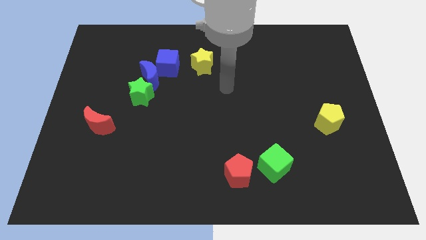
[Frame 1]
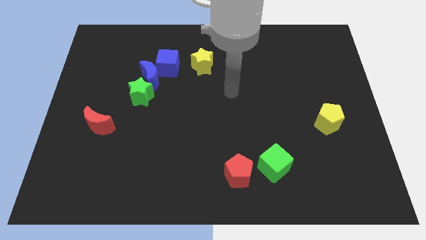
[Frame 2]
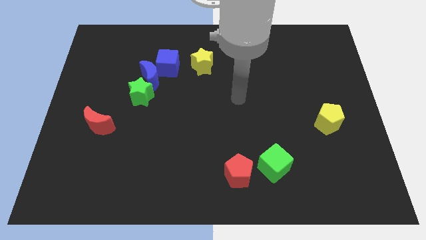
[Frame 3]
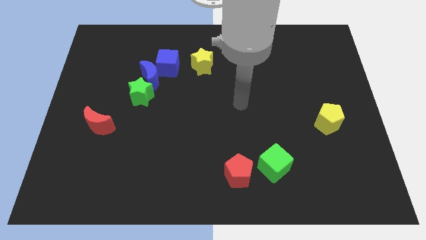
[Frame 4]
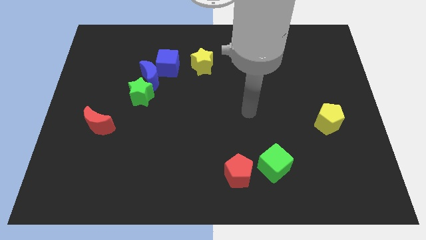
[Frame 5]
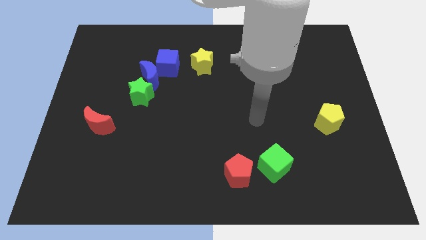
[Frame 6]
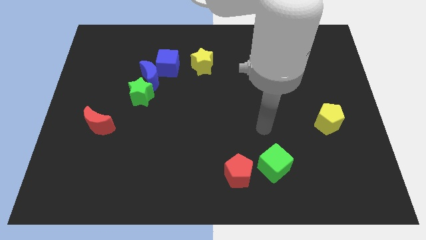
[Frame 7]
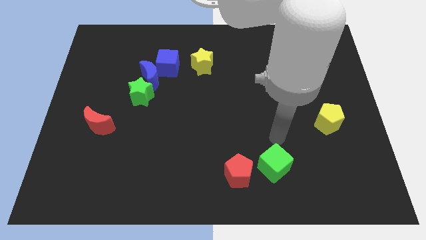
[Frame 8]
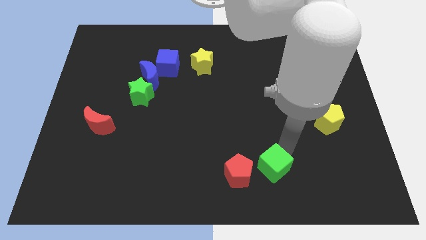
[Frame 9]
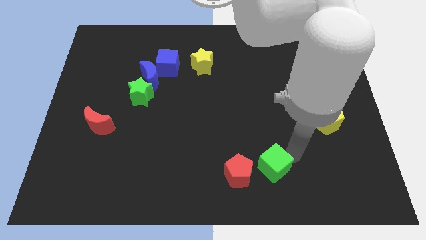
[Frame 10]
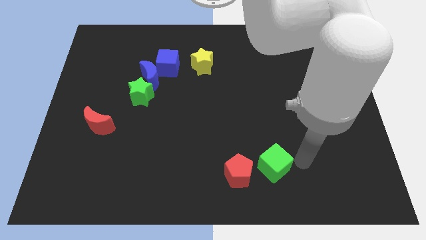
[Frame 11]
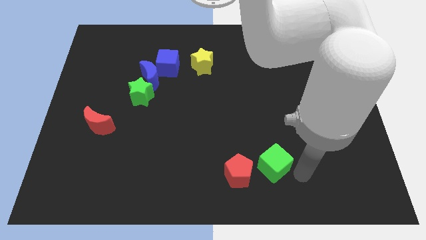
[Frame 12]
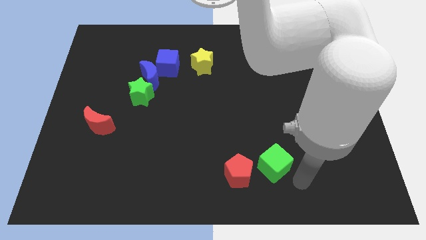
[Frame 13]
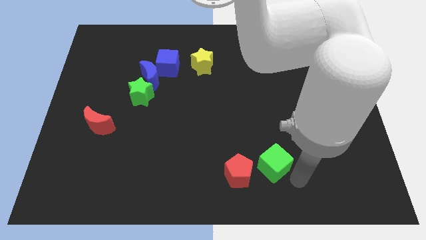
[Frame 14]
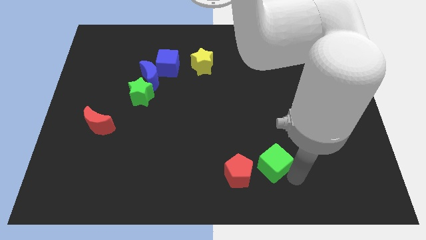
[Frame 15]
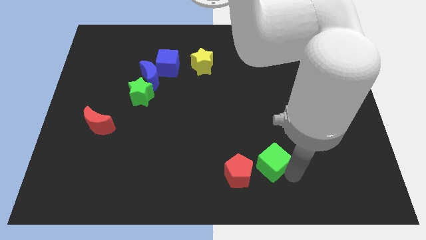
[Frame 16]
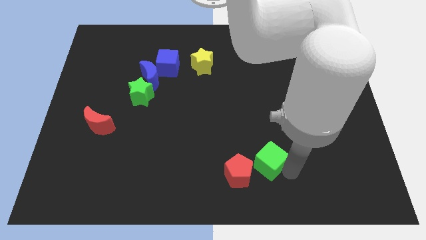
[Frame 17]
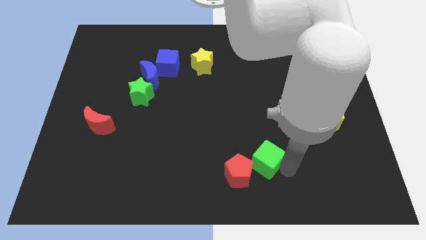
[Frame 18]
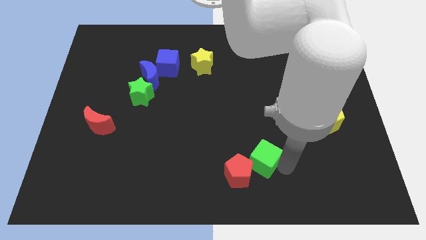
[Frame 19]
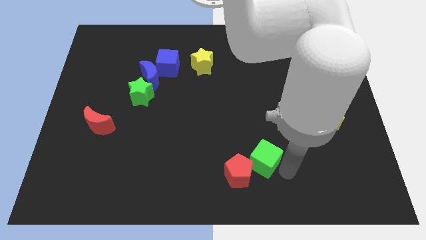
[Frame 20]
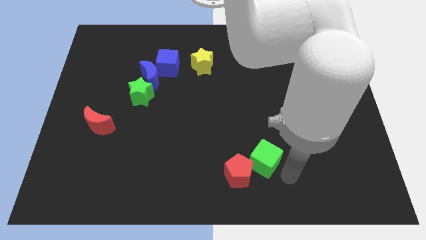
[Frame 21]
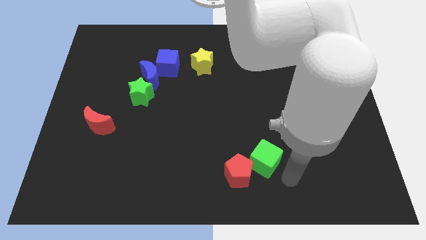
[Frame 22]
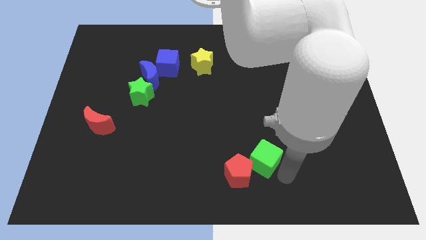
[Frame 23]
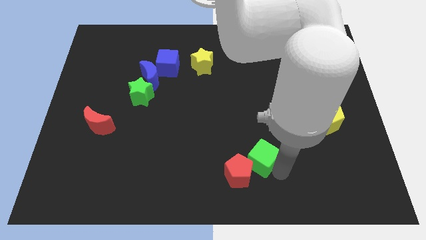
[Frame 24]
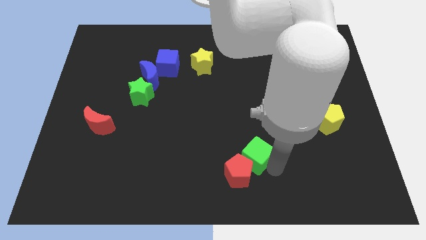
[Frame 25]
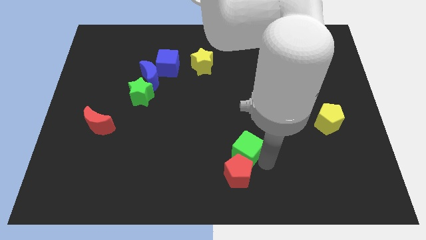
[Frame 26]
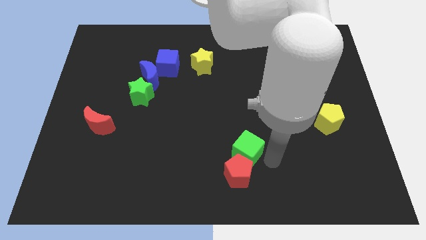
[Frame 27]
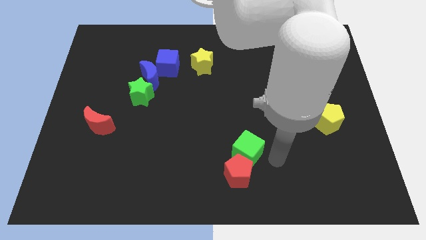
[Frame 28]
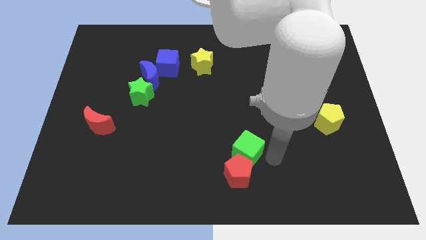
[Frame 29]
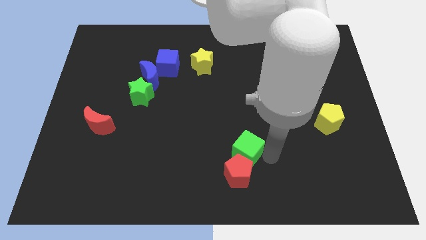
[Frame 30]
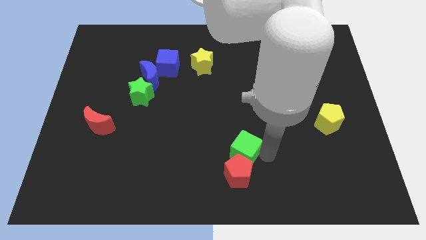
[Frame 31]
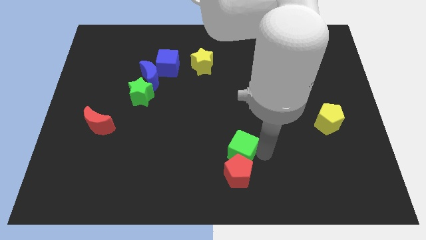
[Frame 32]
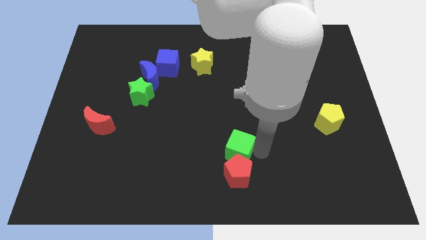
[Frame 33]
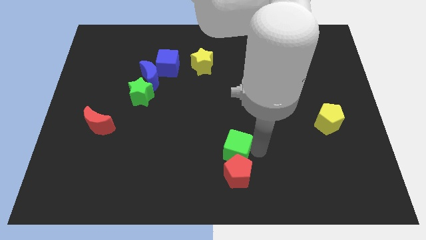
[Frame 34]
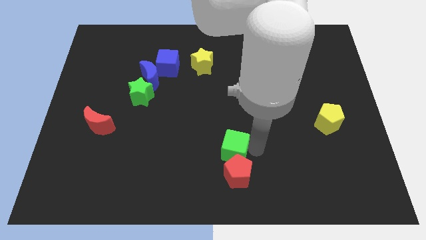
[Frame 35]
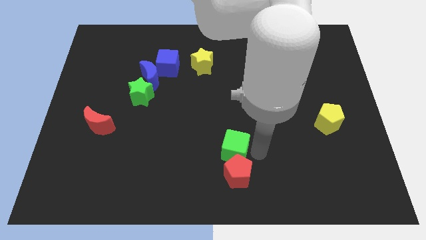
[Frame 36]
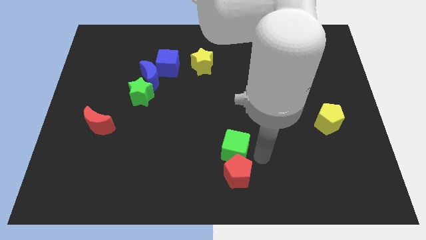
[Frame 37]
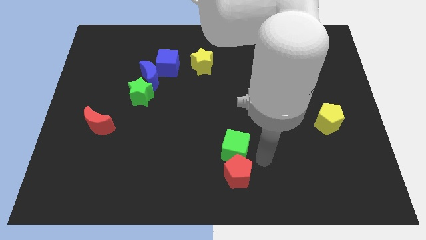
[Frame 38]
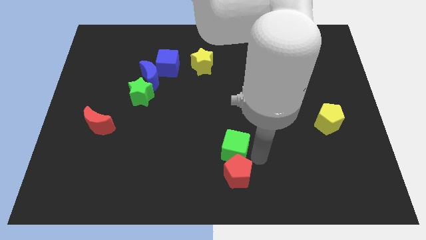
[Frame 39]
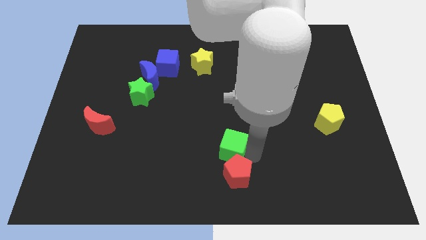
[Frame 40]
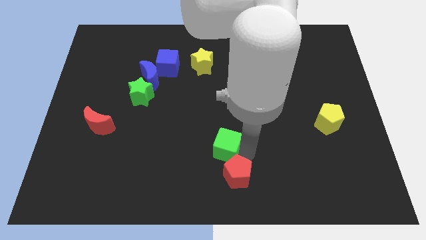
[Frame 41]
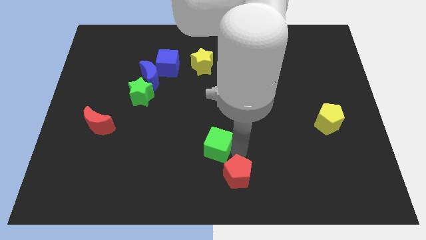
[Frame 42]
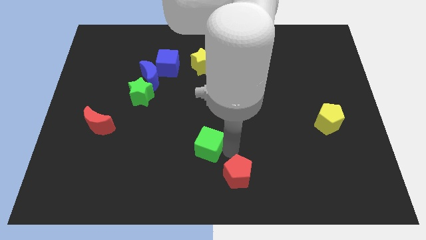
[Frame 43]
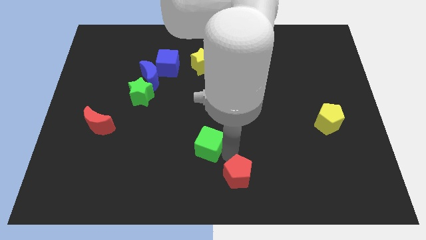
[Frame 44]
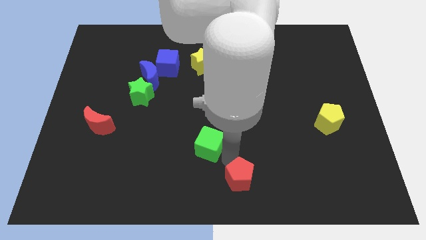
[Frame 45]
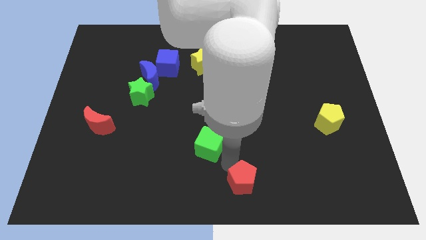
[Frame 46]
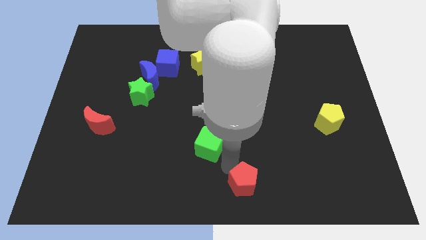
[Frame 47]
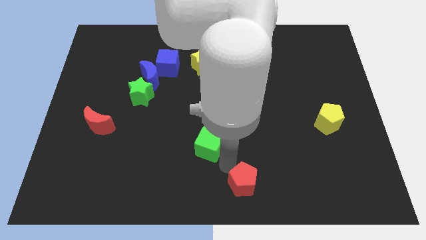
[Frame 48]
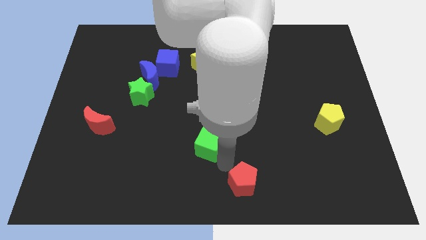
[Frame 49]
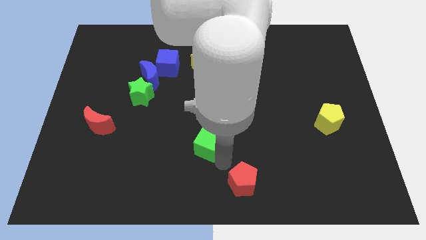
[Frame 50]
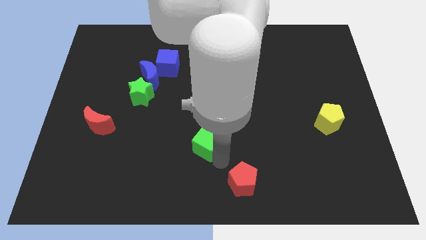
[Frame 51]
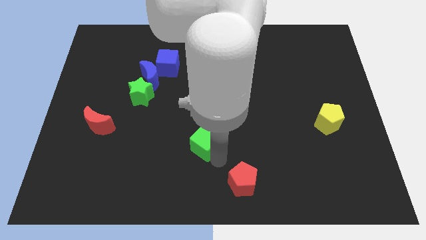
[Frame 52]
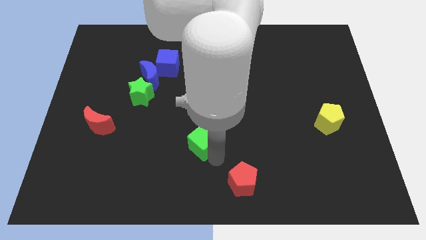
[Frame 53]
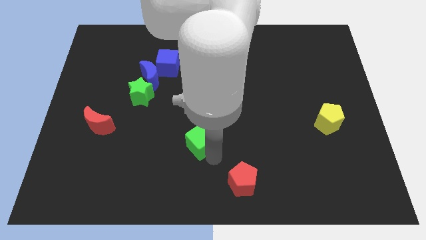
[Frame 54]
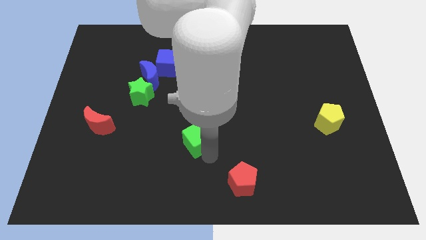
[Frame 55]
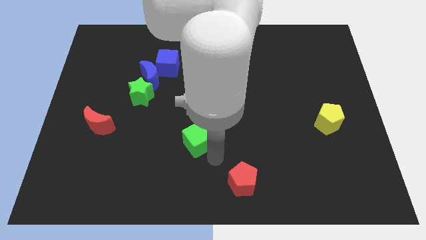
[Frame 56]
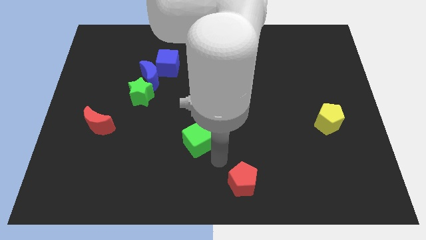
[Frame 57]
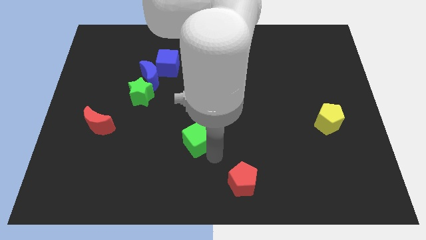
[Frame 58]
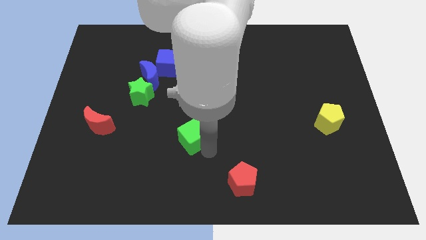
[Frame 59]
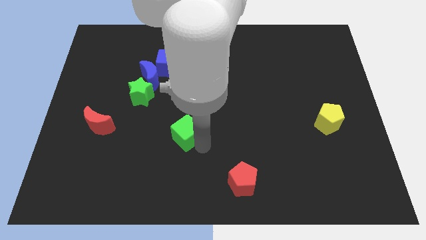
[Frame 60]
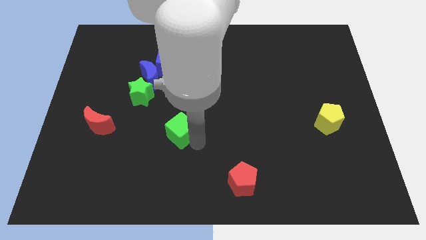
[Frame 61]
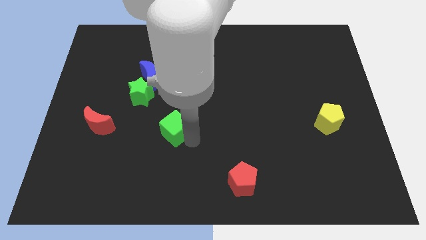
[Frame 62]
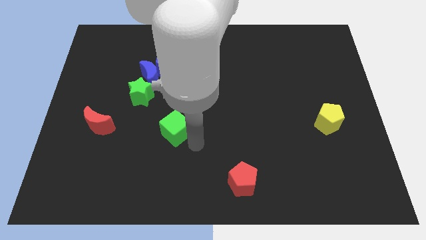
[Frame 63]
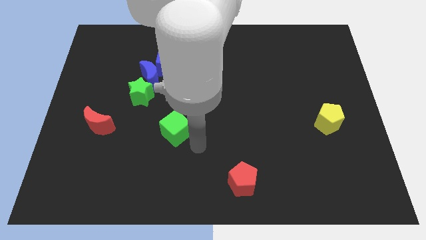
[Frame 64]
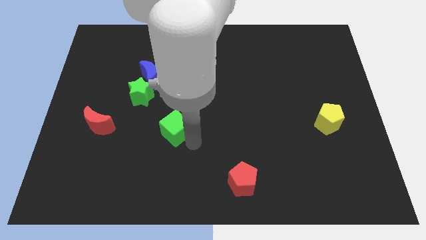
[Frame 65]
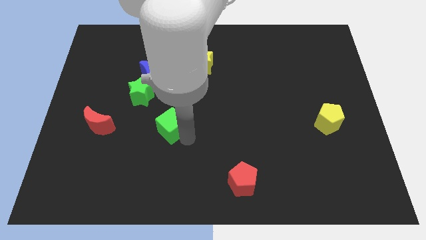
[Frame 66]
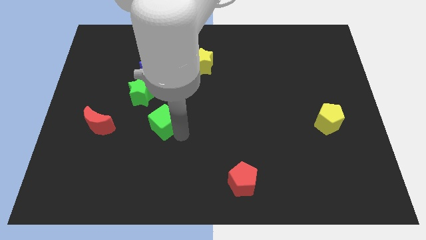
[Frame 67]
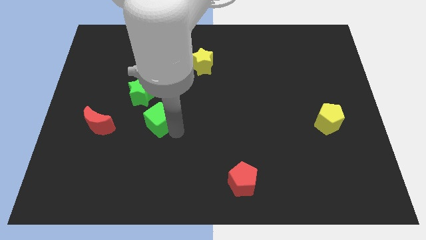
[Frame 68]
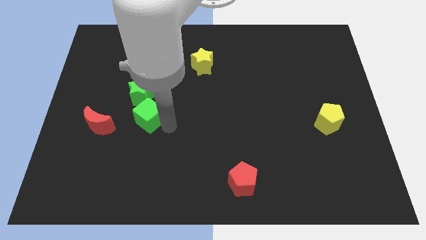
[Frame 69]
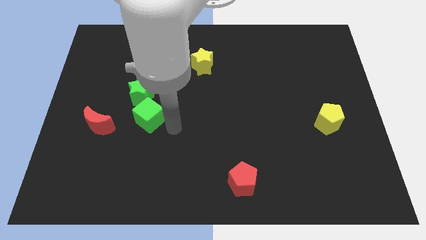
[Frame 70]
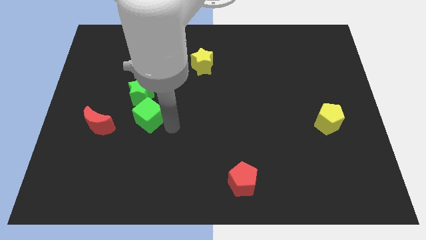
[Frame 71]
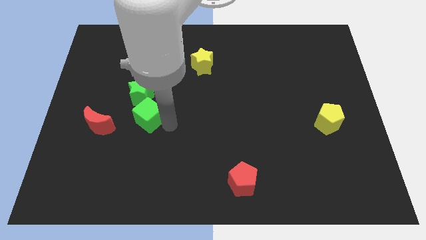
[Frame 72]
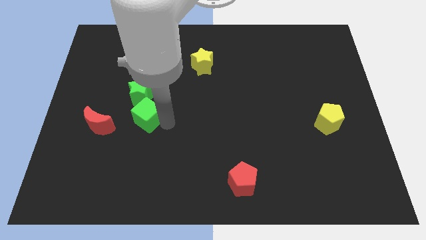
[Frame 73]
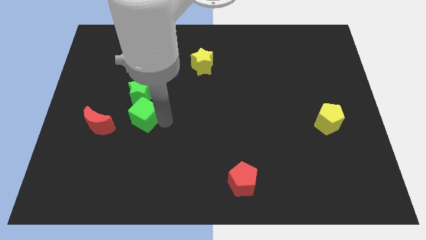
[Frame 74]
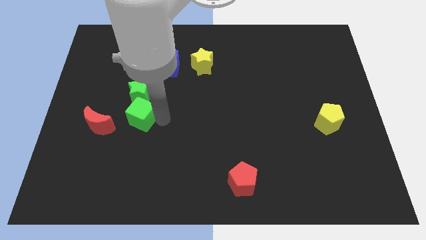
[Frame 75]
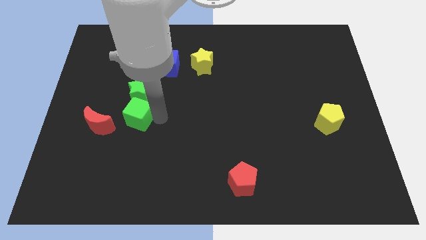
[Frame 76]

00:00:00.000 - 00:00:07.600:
push the green cube diagonally up and to the right of the red moon

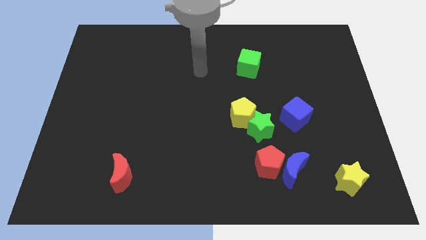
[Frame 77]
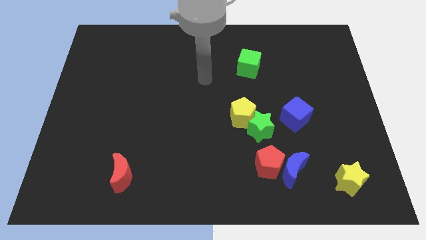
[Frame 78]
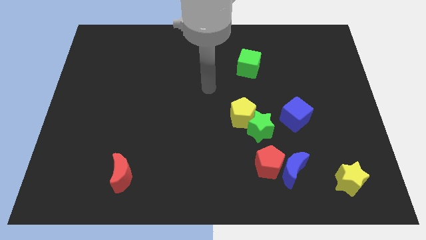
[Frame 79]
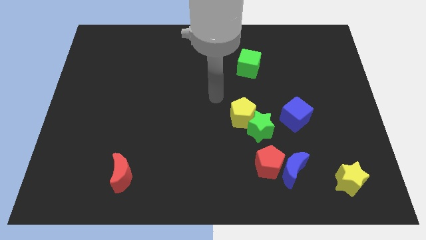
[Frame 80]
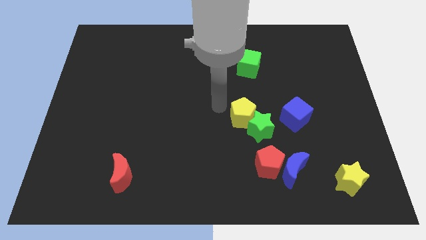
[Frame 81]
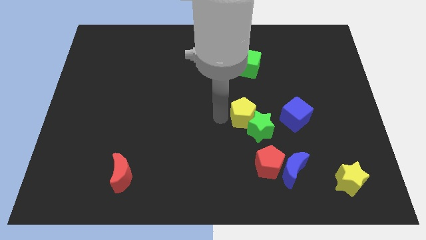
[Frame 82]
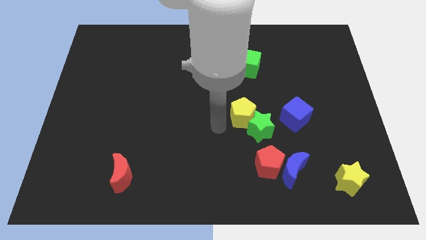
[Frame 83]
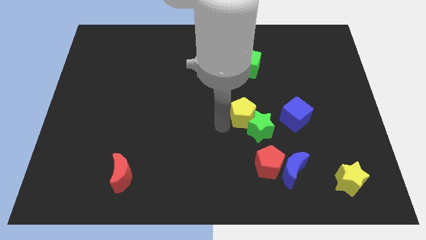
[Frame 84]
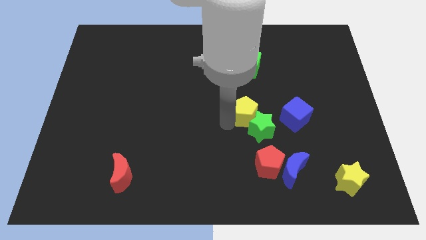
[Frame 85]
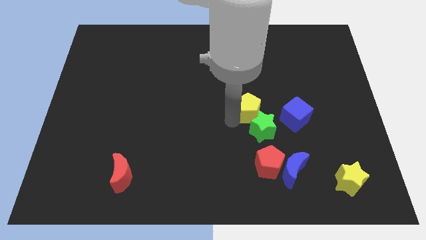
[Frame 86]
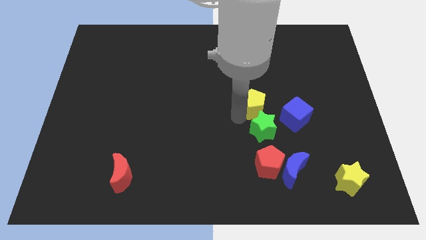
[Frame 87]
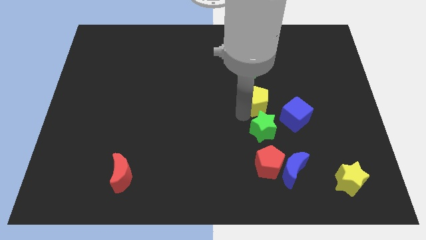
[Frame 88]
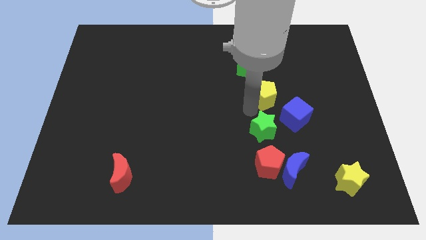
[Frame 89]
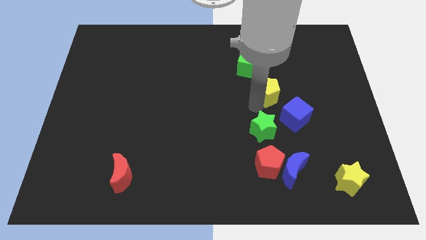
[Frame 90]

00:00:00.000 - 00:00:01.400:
push the yellow pentagon to the bottom right of the green cube
